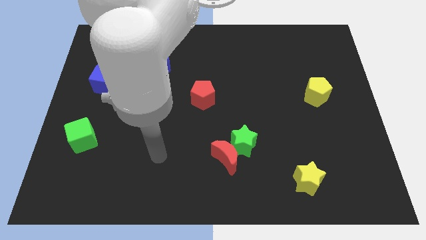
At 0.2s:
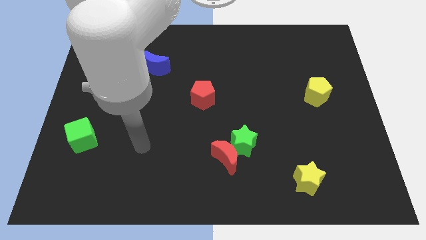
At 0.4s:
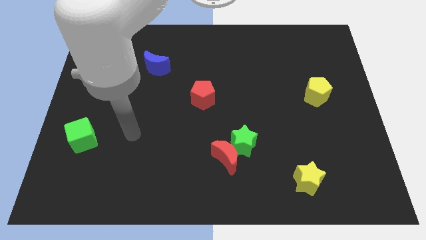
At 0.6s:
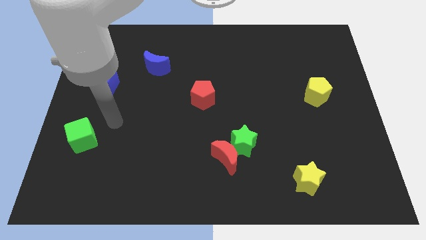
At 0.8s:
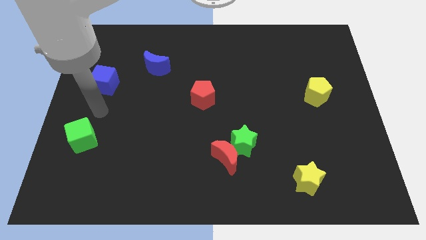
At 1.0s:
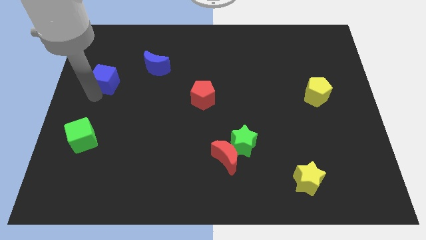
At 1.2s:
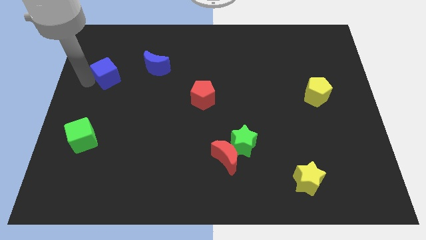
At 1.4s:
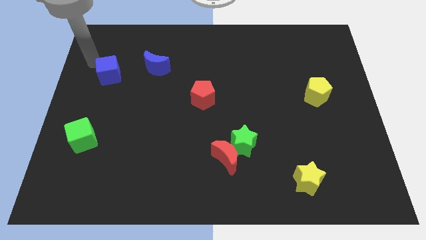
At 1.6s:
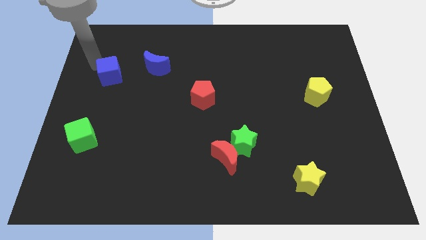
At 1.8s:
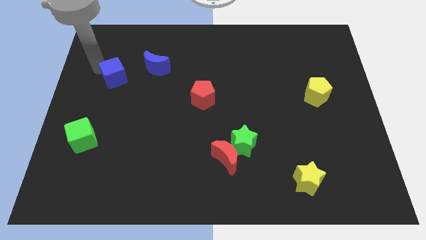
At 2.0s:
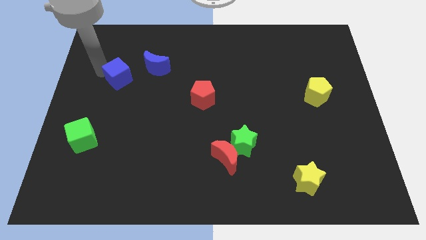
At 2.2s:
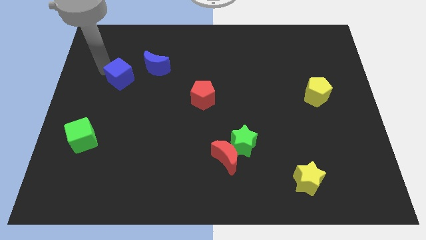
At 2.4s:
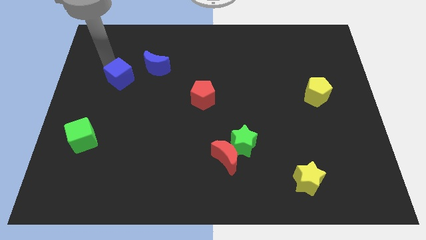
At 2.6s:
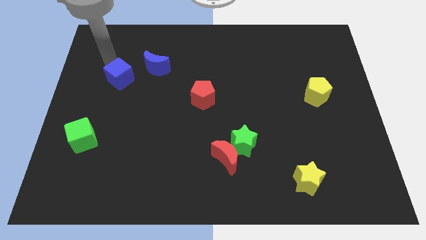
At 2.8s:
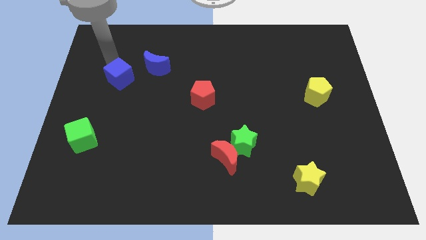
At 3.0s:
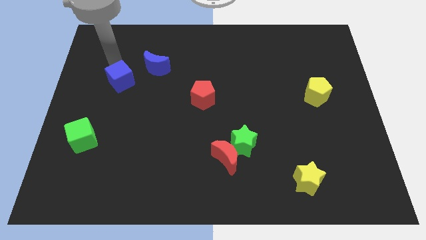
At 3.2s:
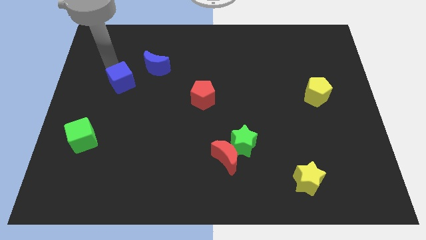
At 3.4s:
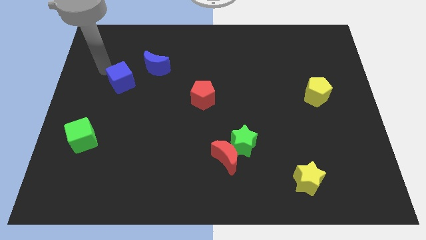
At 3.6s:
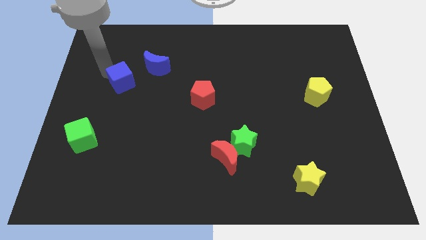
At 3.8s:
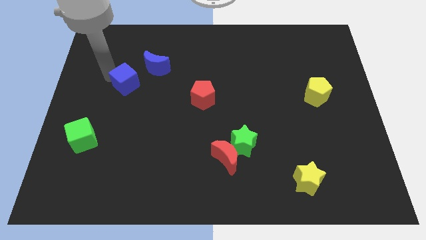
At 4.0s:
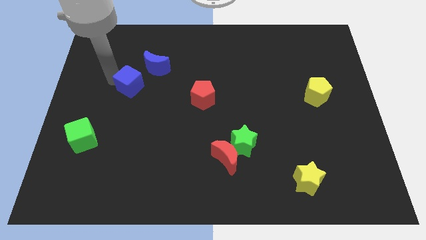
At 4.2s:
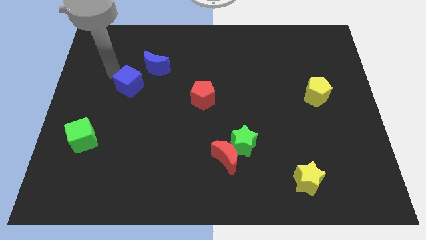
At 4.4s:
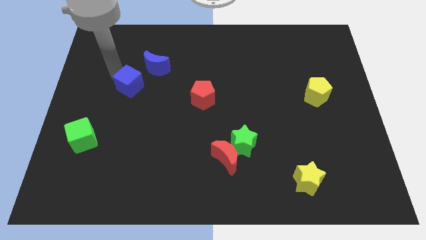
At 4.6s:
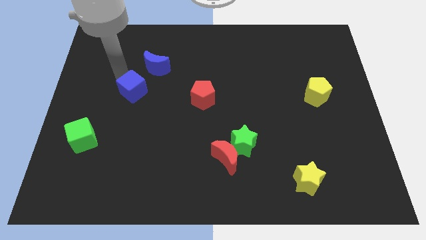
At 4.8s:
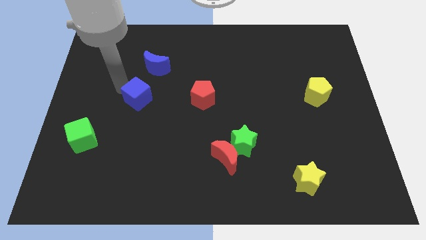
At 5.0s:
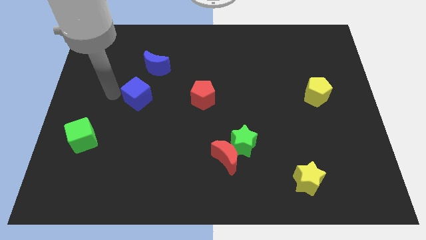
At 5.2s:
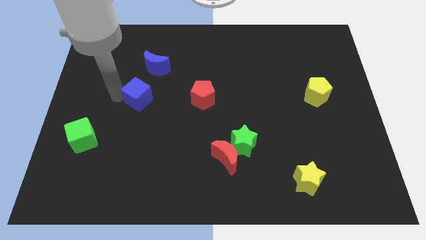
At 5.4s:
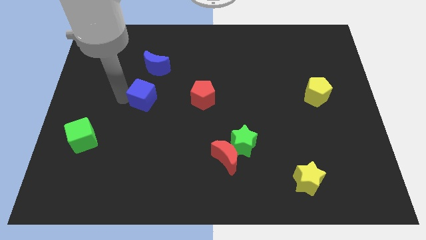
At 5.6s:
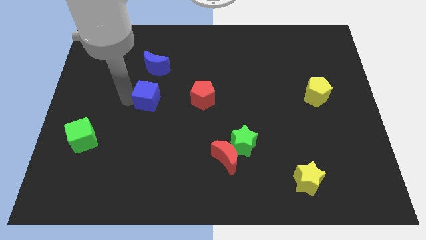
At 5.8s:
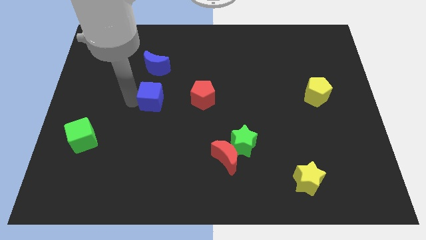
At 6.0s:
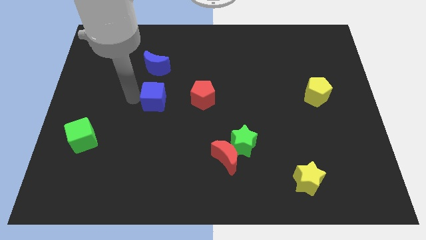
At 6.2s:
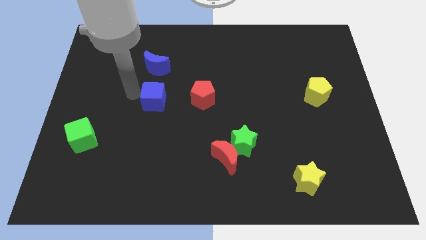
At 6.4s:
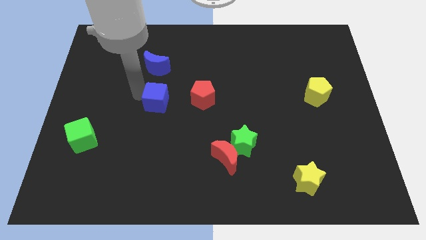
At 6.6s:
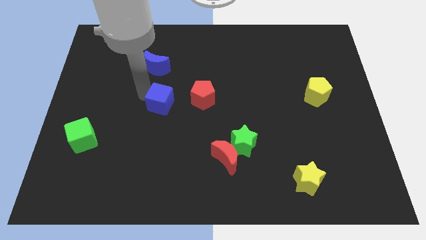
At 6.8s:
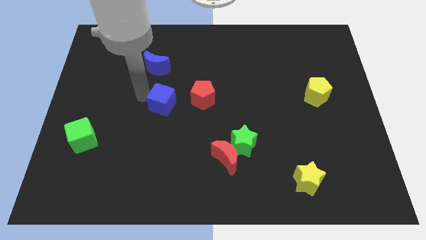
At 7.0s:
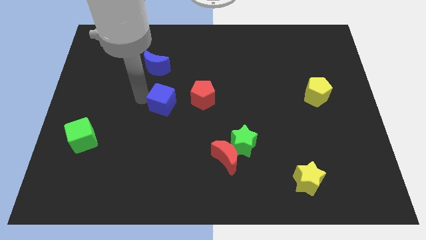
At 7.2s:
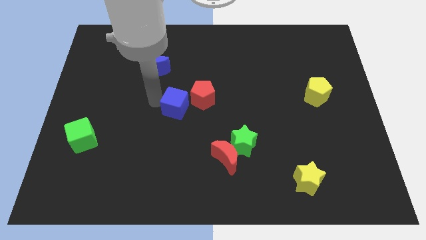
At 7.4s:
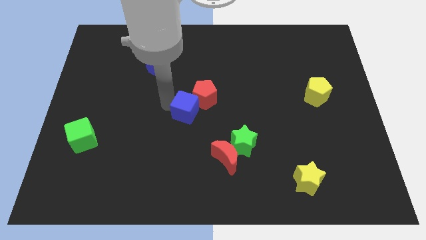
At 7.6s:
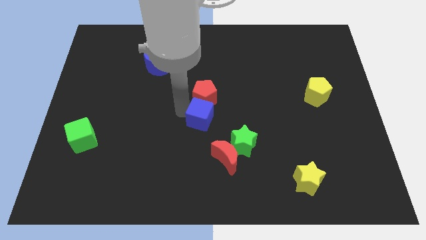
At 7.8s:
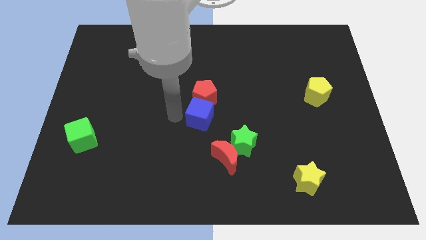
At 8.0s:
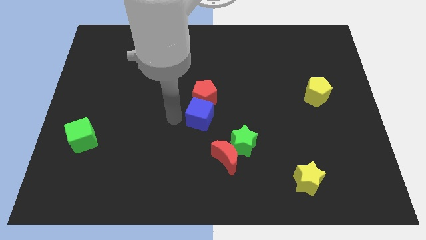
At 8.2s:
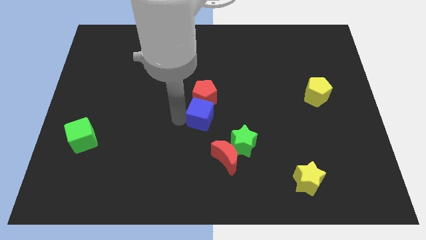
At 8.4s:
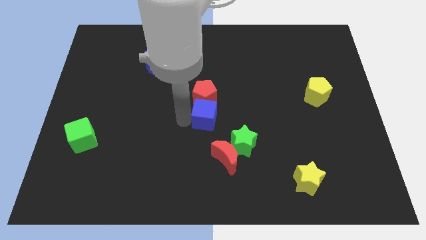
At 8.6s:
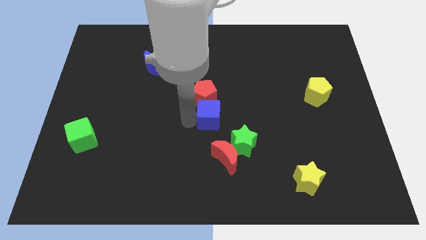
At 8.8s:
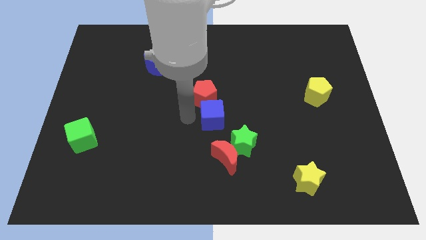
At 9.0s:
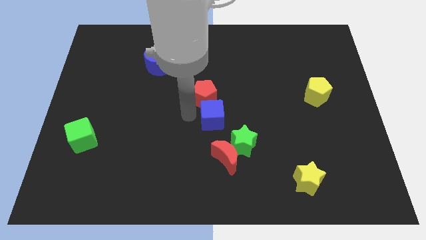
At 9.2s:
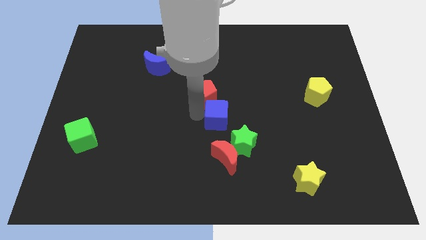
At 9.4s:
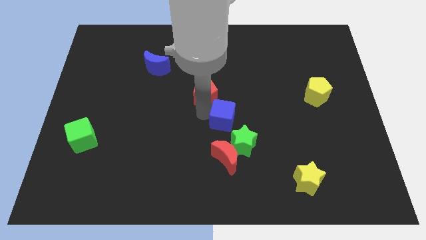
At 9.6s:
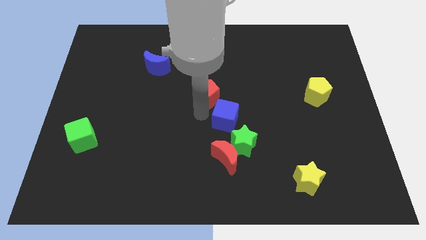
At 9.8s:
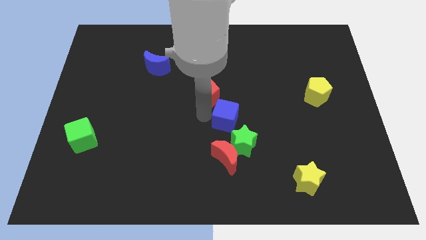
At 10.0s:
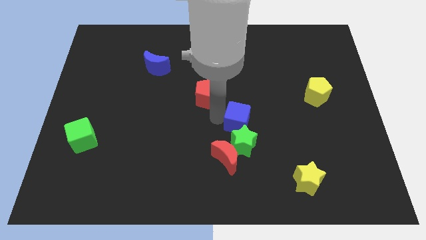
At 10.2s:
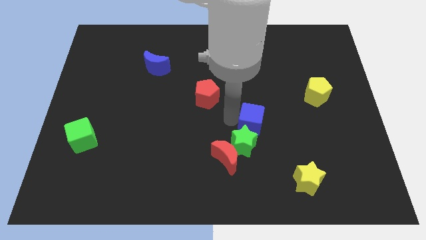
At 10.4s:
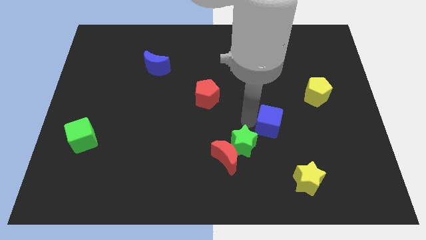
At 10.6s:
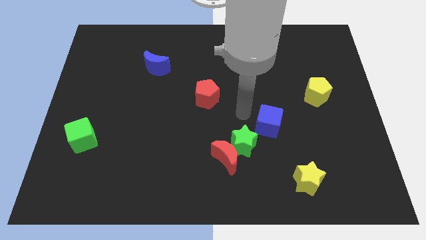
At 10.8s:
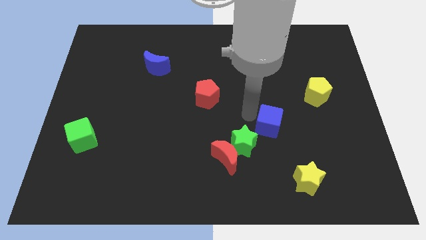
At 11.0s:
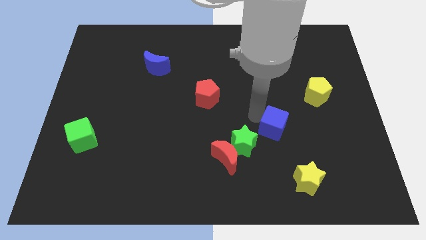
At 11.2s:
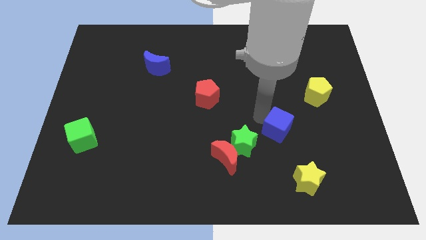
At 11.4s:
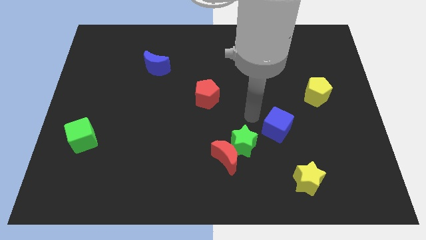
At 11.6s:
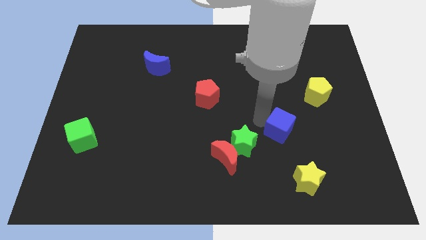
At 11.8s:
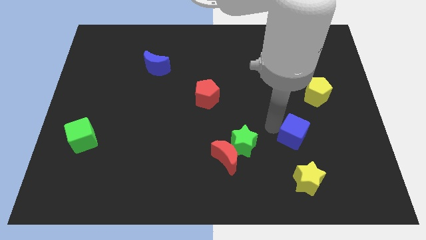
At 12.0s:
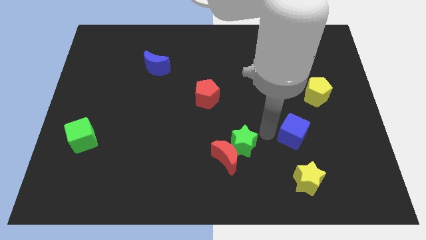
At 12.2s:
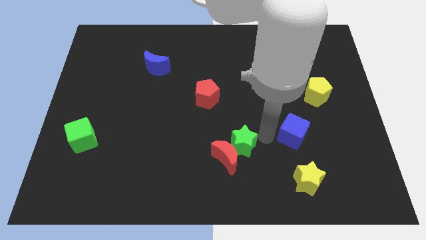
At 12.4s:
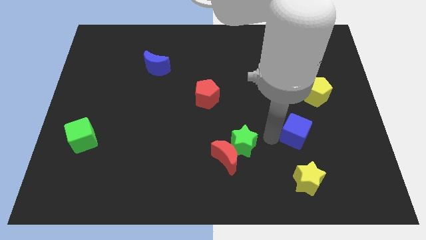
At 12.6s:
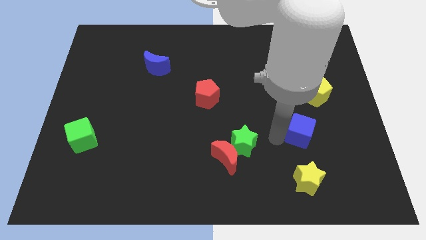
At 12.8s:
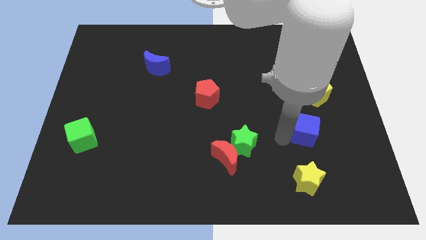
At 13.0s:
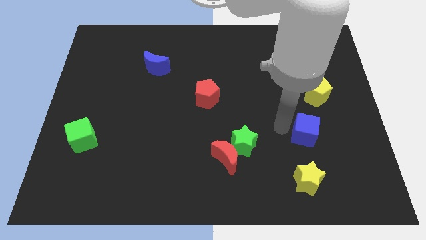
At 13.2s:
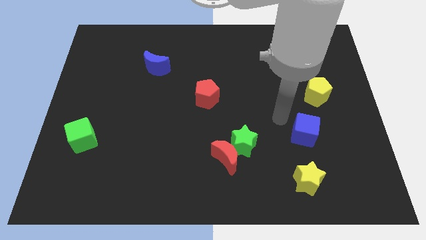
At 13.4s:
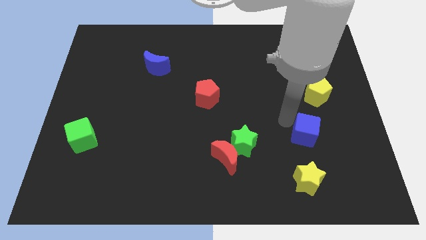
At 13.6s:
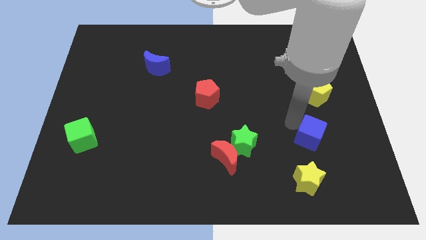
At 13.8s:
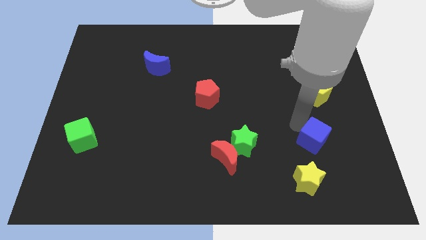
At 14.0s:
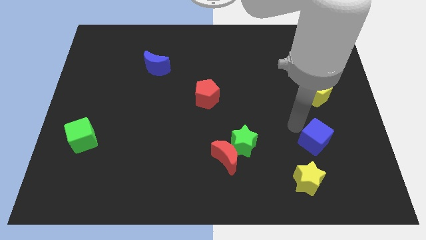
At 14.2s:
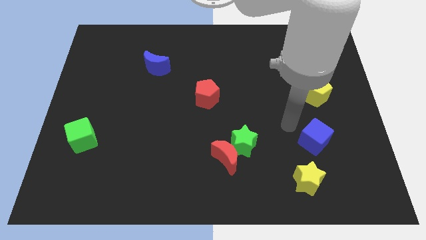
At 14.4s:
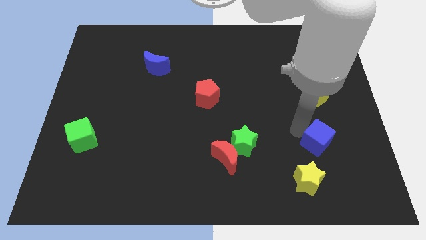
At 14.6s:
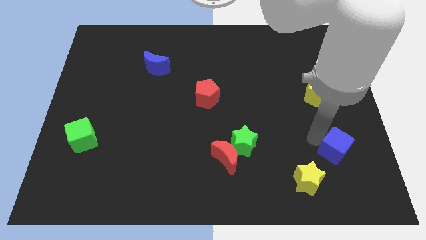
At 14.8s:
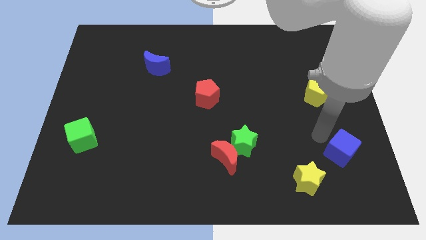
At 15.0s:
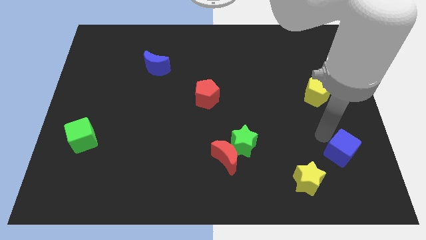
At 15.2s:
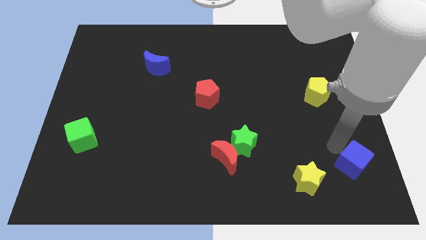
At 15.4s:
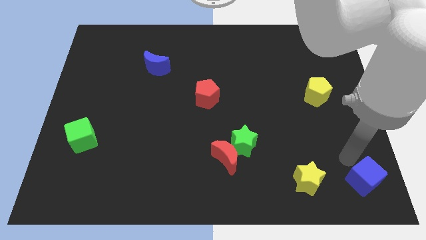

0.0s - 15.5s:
move the blue cube to the bottom right of the board
